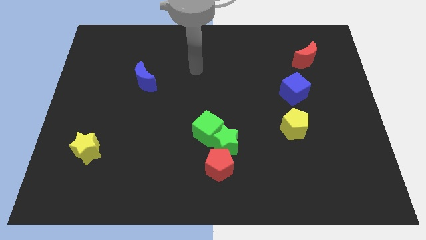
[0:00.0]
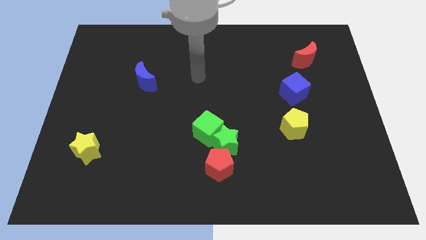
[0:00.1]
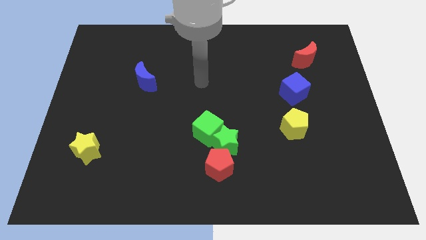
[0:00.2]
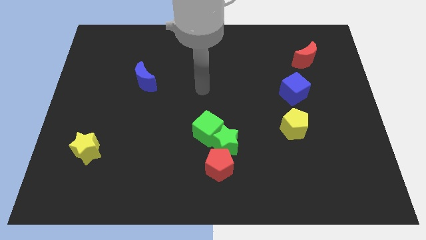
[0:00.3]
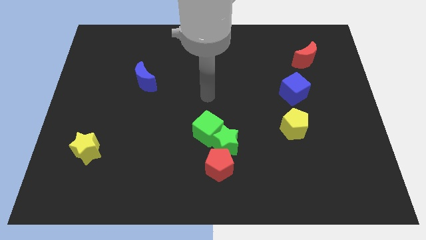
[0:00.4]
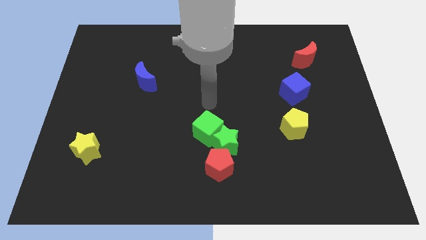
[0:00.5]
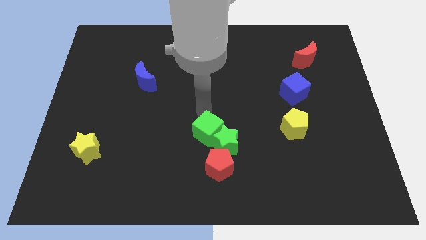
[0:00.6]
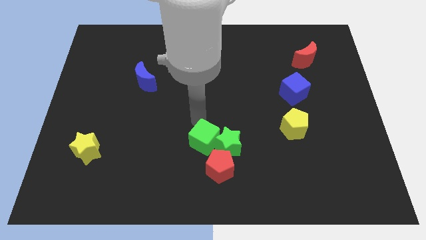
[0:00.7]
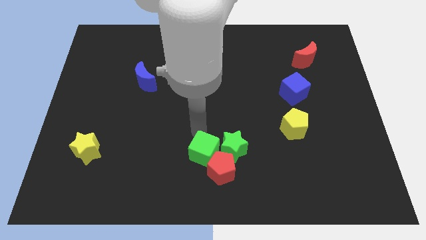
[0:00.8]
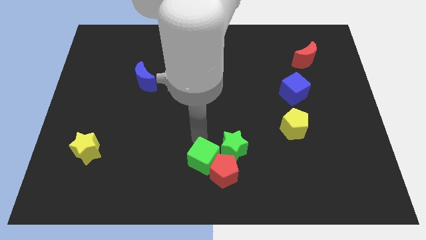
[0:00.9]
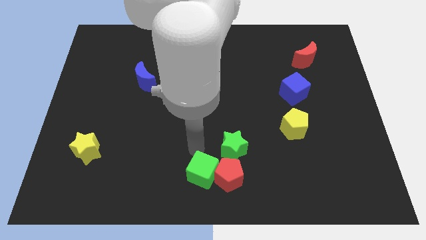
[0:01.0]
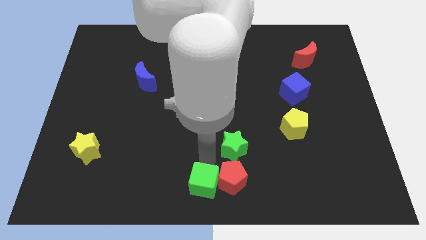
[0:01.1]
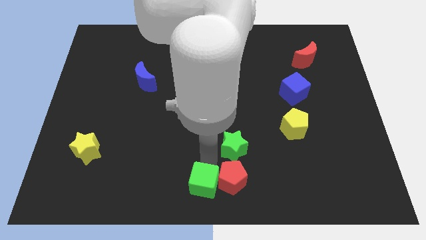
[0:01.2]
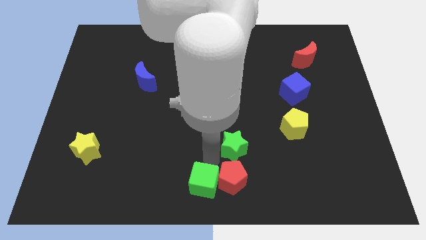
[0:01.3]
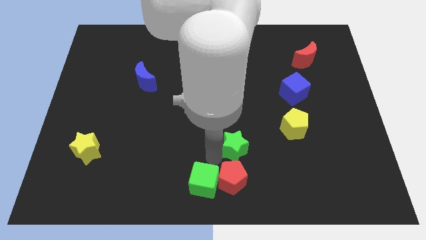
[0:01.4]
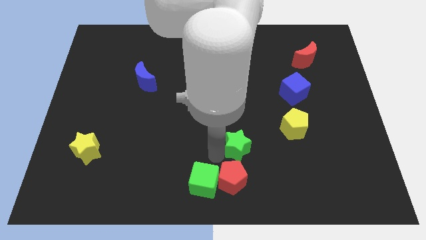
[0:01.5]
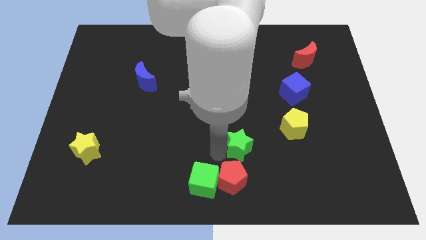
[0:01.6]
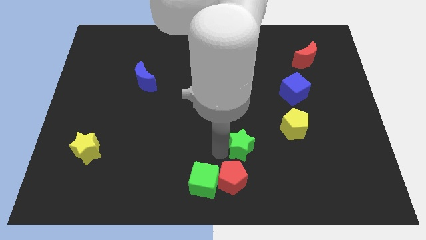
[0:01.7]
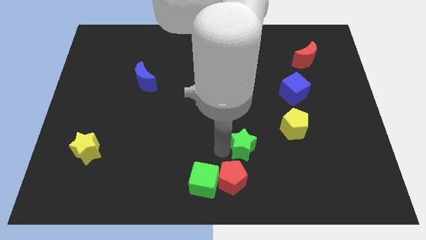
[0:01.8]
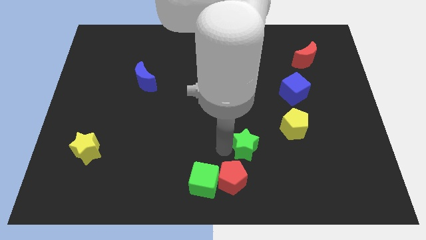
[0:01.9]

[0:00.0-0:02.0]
move the green star away from the green cube and red pentagon

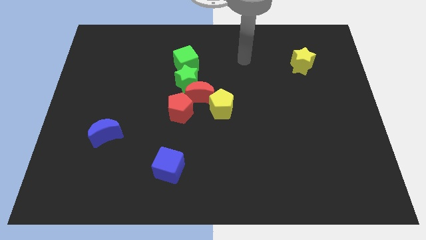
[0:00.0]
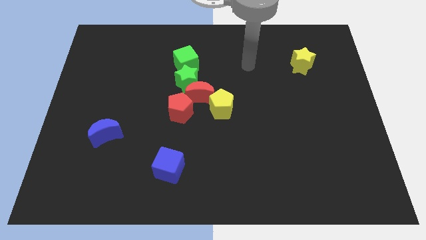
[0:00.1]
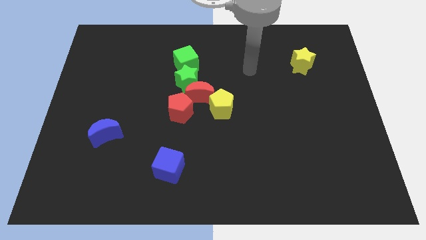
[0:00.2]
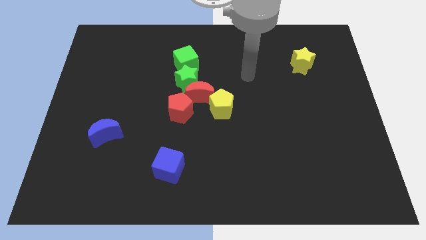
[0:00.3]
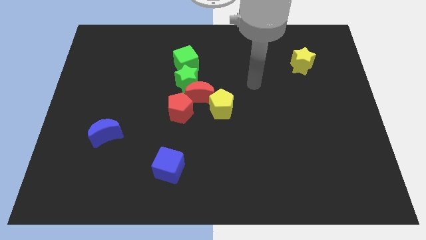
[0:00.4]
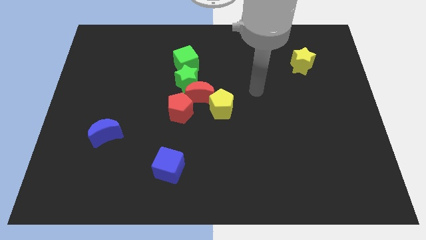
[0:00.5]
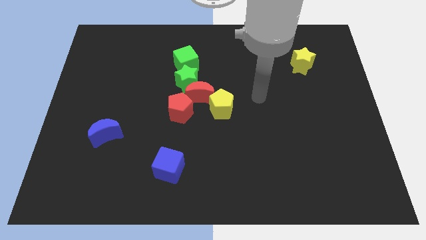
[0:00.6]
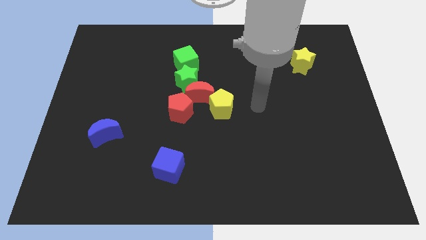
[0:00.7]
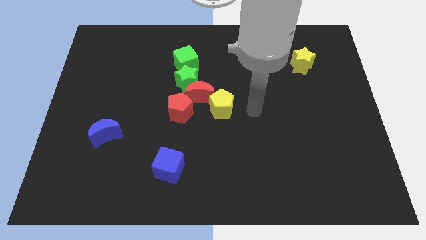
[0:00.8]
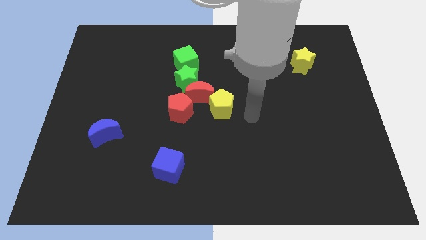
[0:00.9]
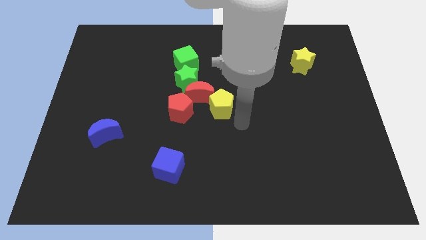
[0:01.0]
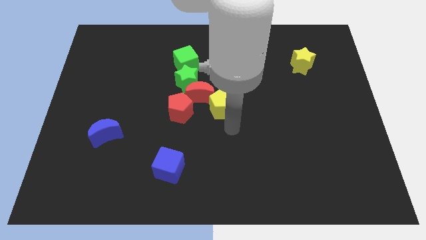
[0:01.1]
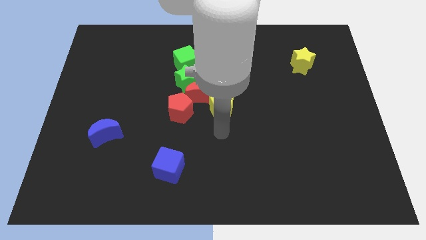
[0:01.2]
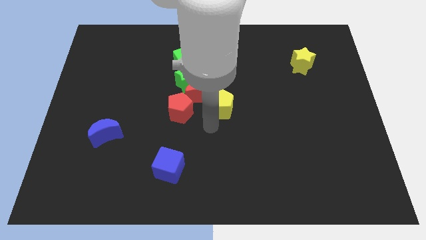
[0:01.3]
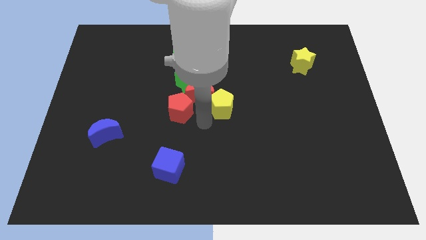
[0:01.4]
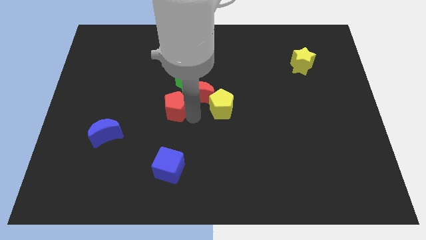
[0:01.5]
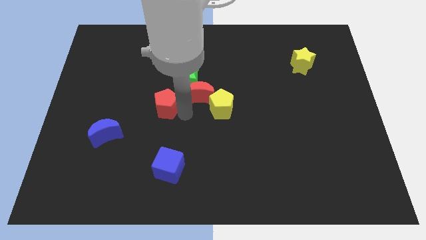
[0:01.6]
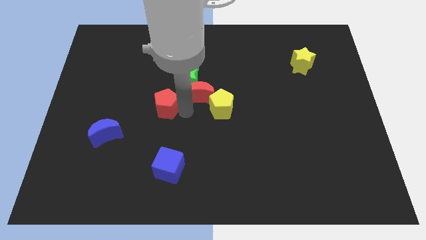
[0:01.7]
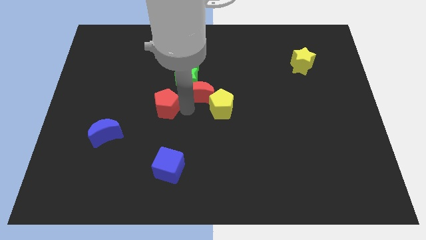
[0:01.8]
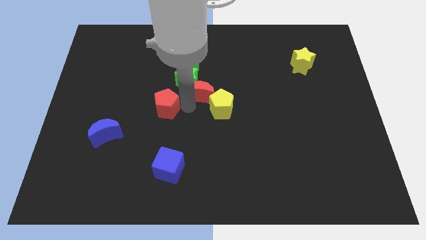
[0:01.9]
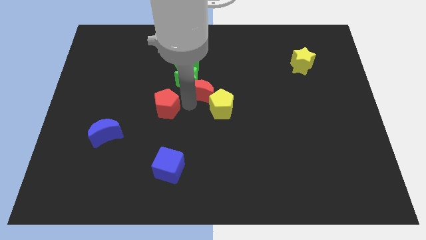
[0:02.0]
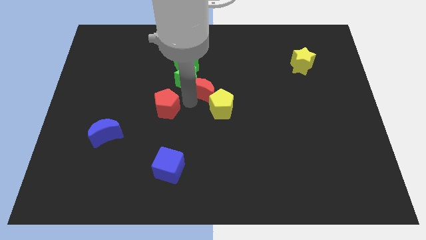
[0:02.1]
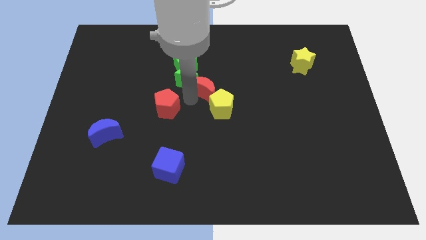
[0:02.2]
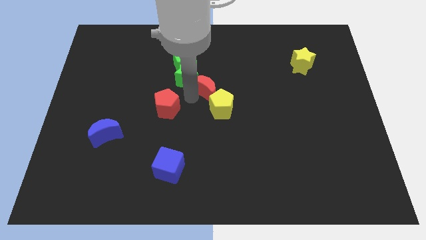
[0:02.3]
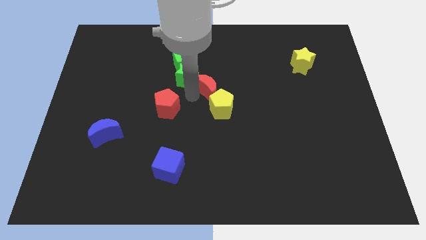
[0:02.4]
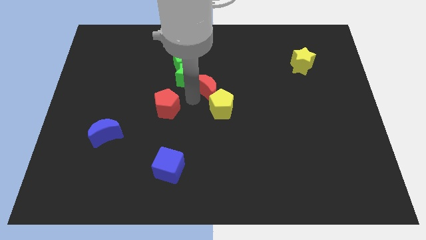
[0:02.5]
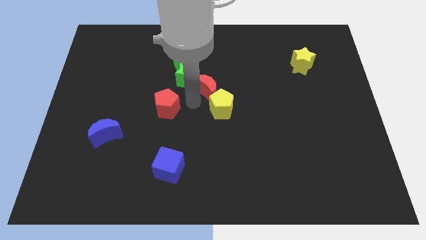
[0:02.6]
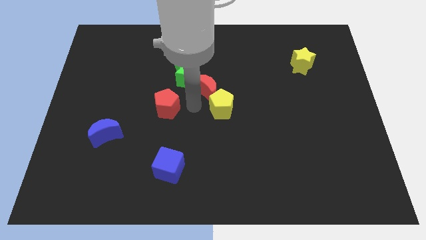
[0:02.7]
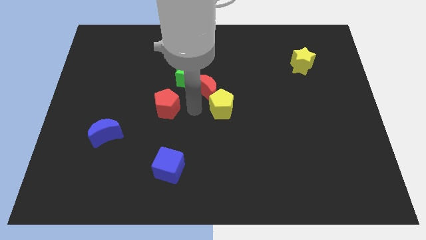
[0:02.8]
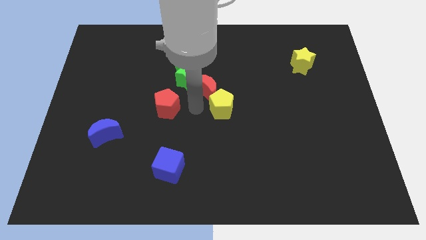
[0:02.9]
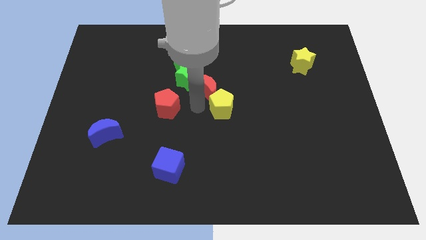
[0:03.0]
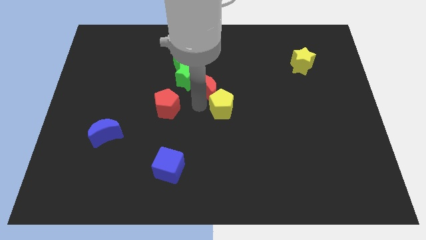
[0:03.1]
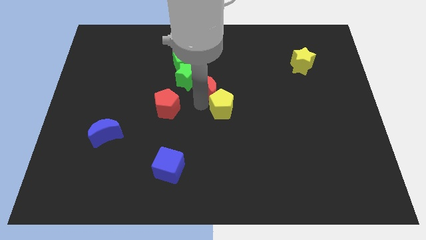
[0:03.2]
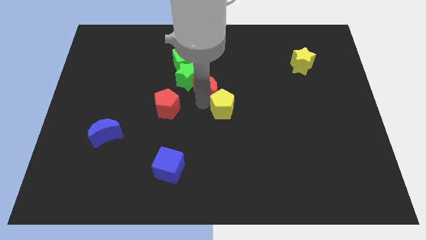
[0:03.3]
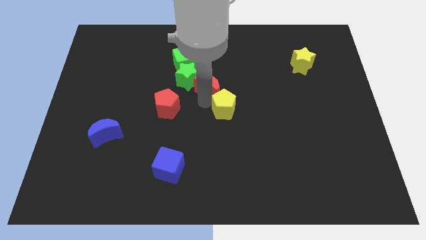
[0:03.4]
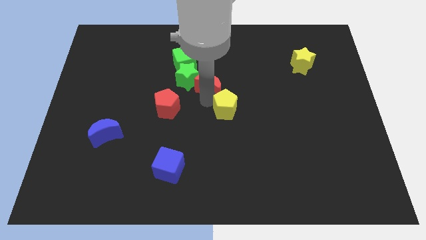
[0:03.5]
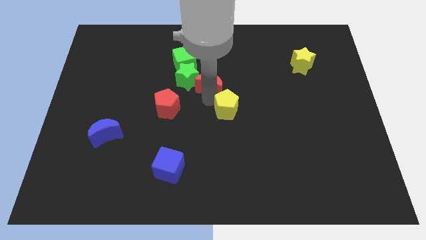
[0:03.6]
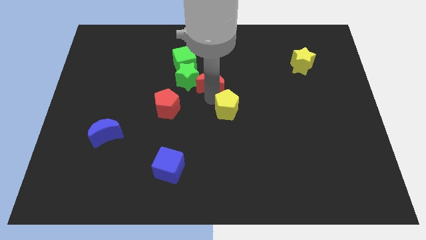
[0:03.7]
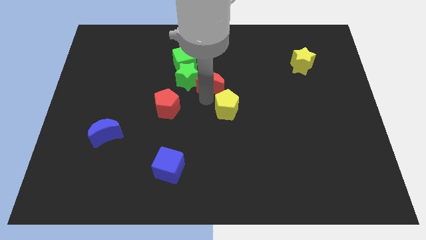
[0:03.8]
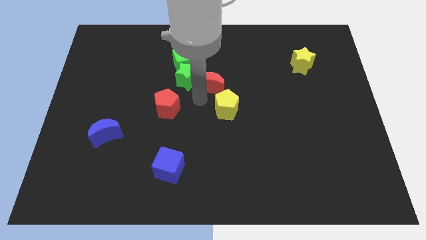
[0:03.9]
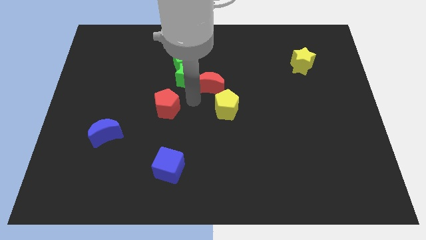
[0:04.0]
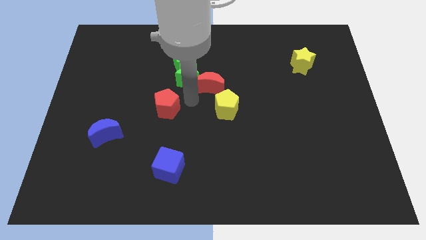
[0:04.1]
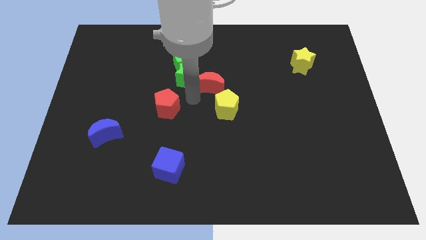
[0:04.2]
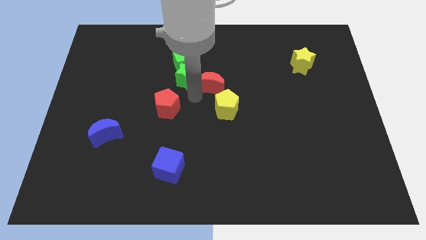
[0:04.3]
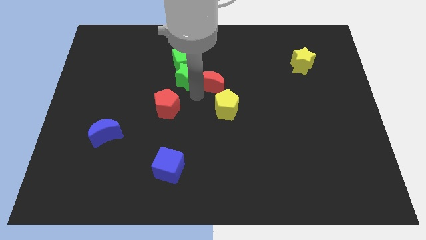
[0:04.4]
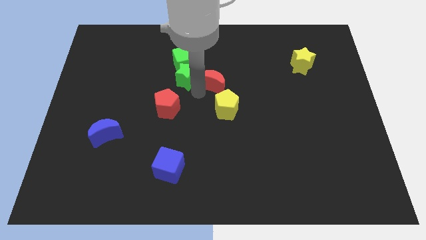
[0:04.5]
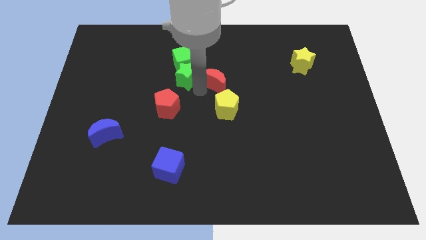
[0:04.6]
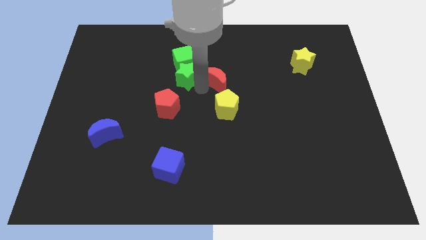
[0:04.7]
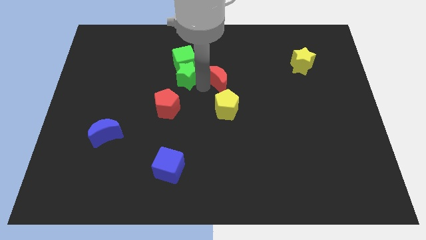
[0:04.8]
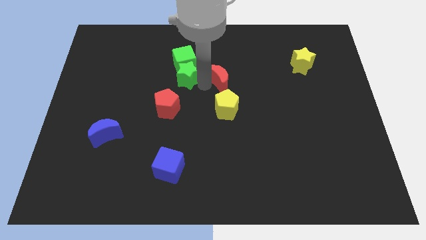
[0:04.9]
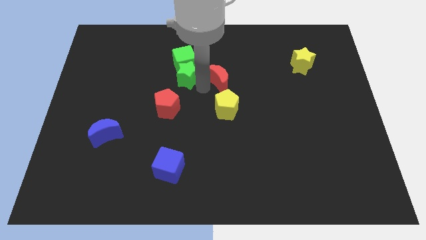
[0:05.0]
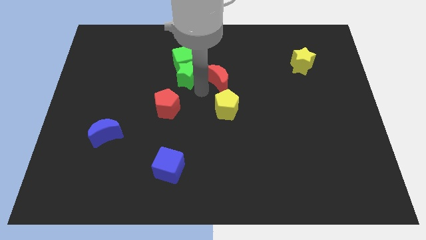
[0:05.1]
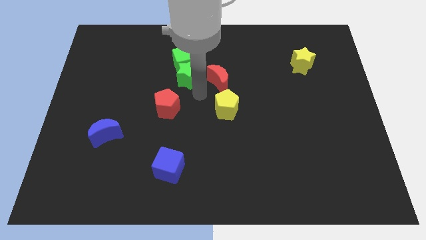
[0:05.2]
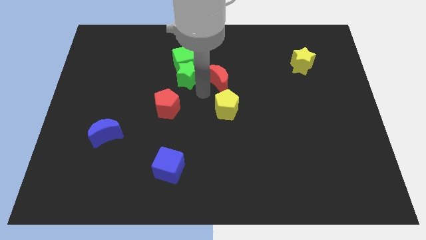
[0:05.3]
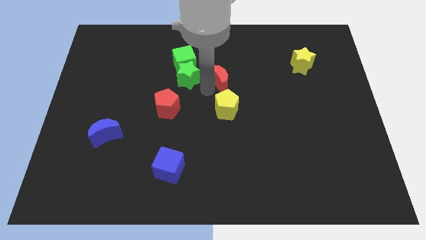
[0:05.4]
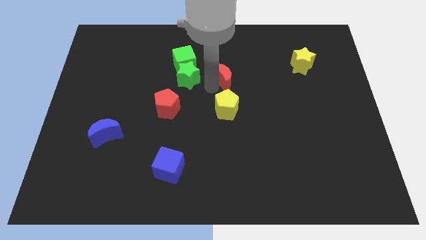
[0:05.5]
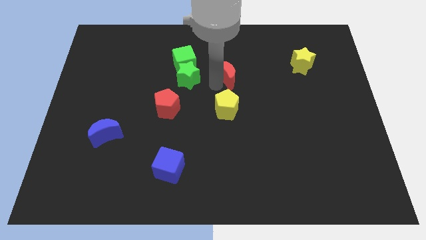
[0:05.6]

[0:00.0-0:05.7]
move the red moon away from the group of blocks

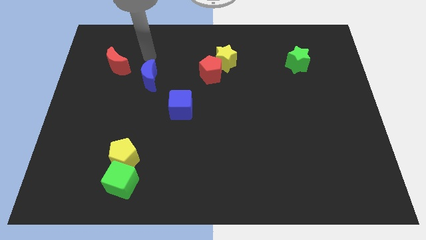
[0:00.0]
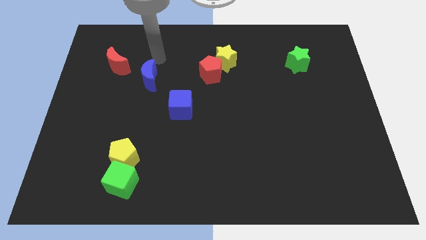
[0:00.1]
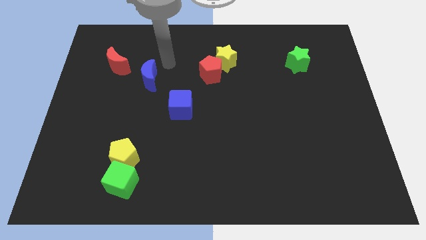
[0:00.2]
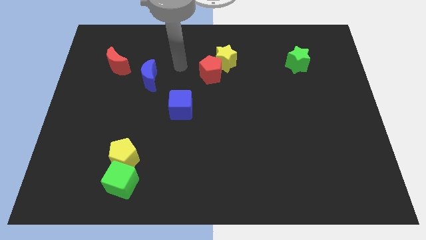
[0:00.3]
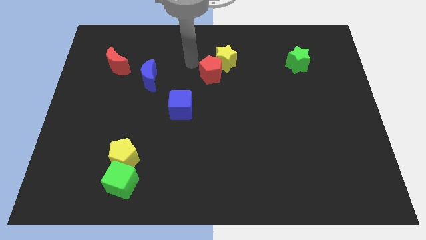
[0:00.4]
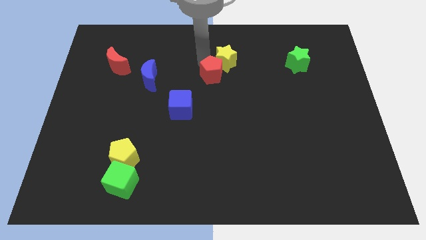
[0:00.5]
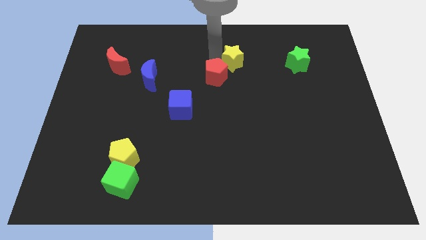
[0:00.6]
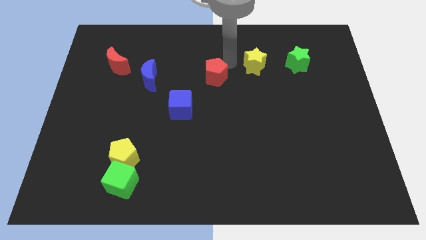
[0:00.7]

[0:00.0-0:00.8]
pull the red pentagon apart from the yellow star

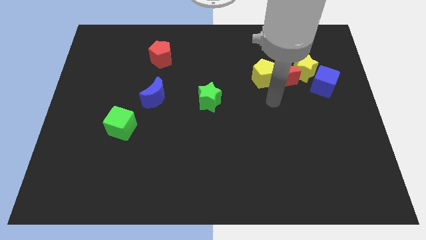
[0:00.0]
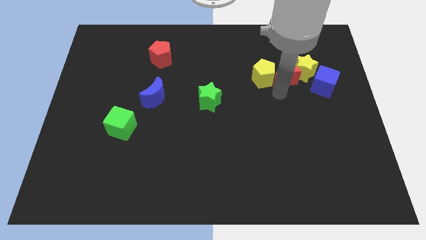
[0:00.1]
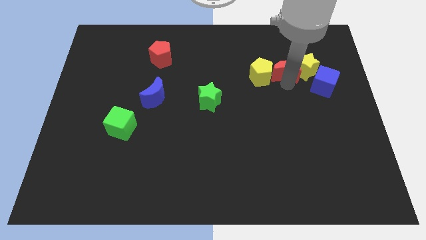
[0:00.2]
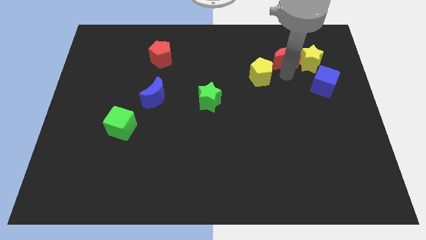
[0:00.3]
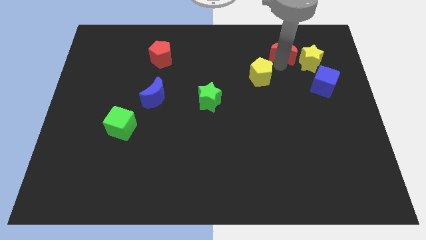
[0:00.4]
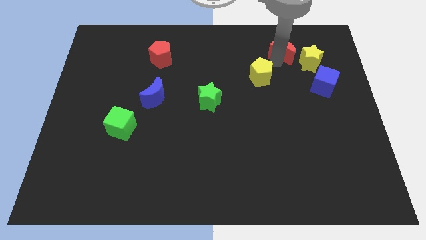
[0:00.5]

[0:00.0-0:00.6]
move the yellow pentagon away from the red moon

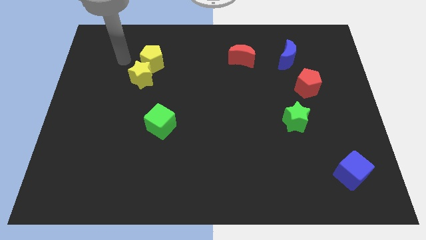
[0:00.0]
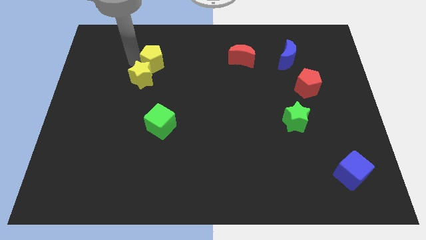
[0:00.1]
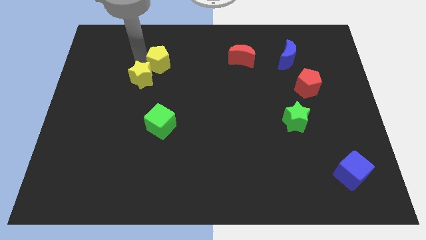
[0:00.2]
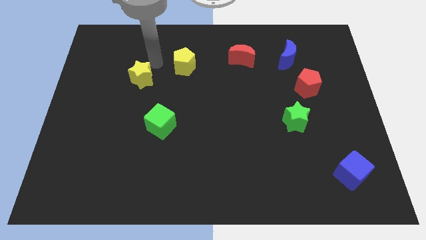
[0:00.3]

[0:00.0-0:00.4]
separate the yellow star from the yellow pentagon

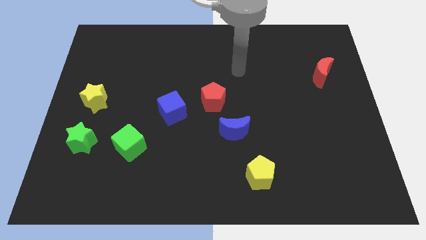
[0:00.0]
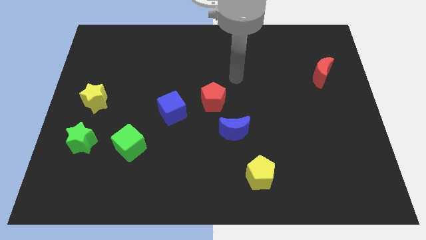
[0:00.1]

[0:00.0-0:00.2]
move the blue moon away from the red pentagon
